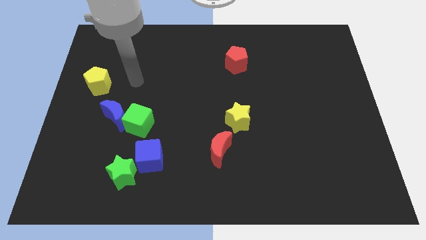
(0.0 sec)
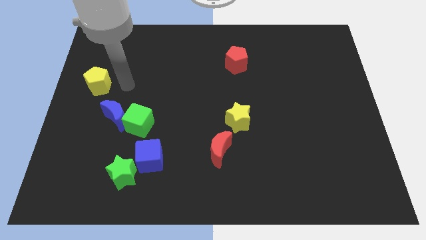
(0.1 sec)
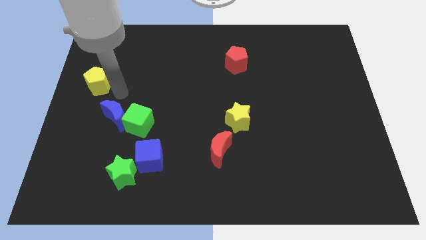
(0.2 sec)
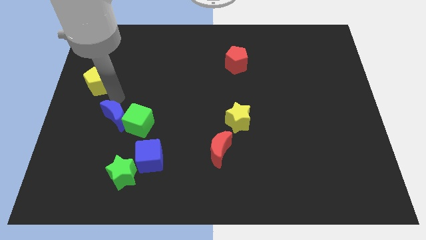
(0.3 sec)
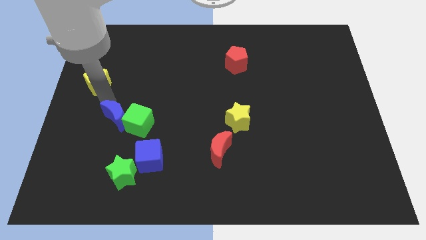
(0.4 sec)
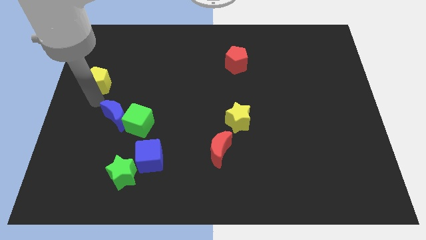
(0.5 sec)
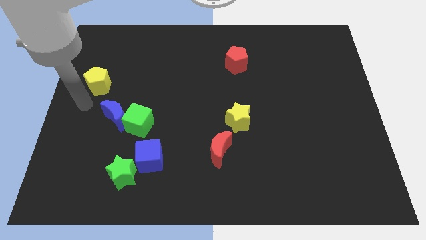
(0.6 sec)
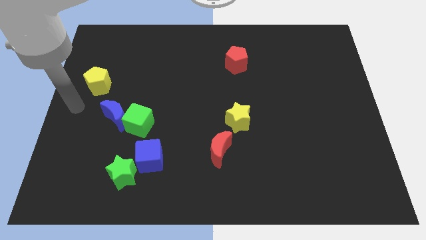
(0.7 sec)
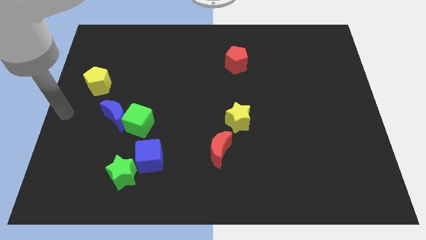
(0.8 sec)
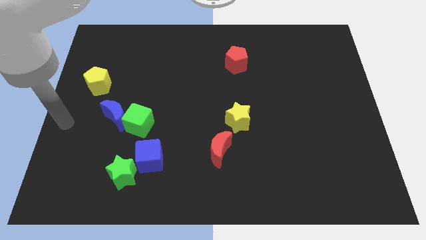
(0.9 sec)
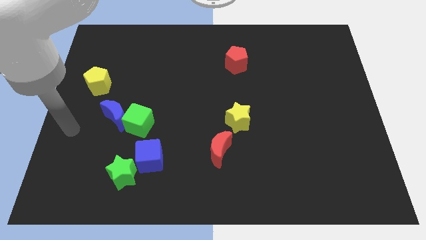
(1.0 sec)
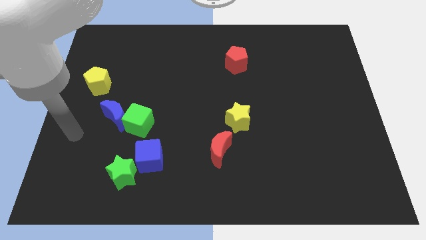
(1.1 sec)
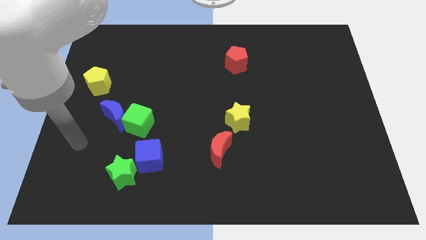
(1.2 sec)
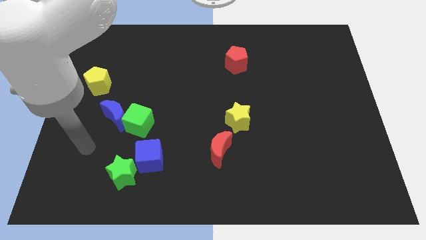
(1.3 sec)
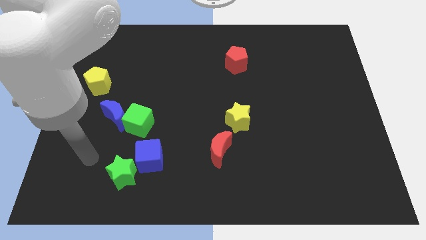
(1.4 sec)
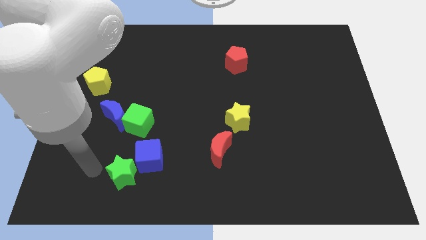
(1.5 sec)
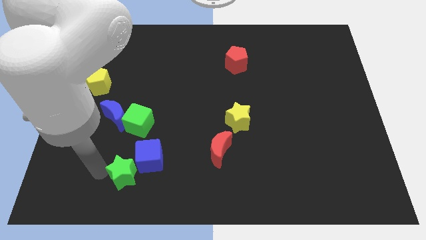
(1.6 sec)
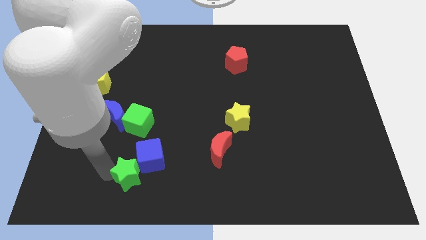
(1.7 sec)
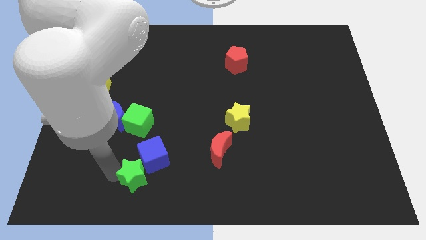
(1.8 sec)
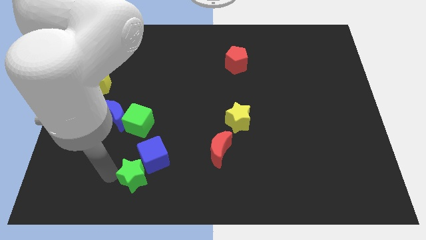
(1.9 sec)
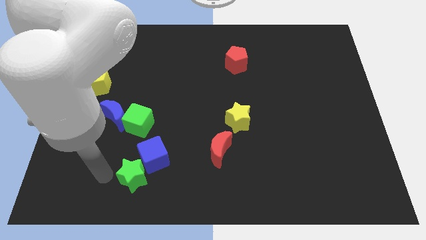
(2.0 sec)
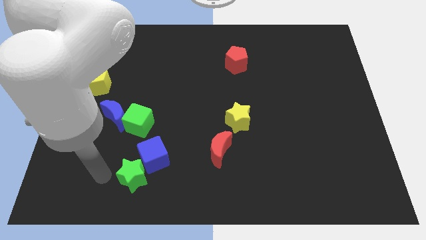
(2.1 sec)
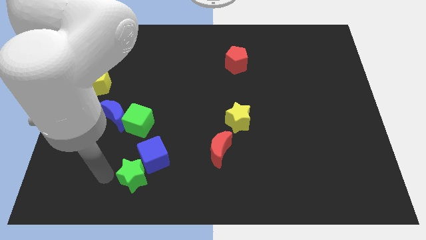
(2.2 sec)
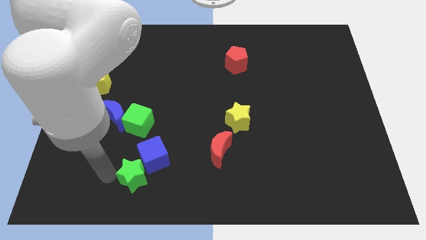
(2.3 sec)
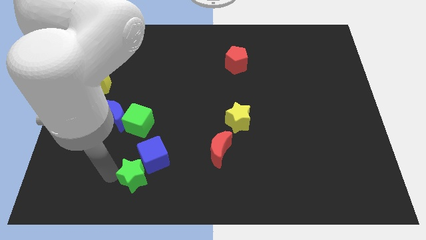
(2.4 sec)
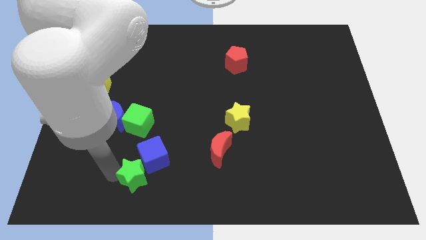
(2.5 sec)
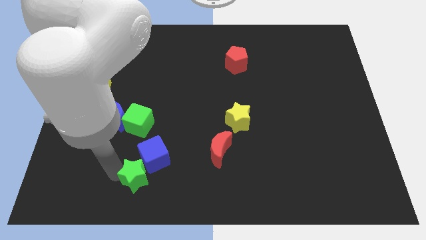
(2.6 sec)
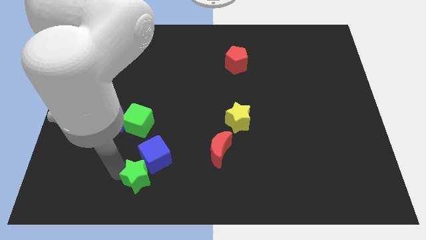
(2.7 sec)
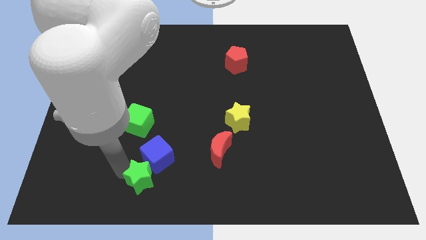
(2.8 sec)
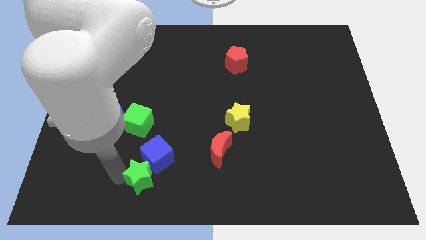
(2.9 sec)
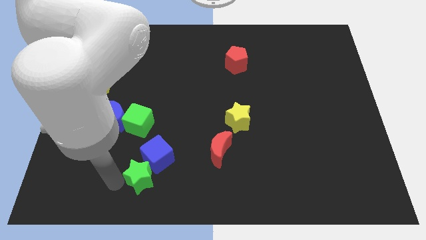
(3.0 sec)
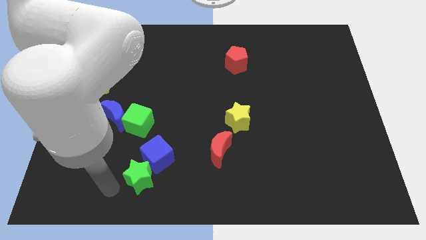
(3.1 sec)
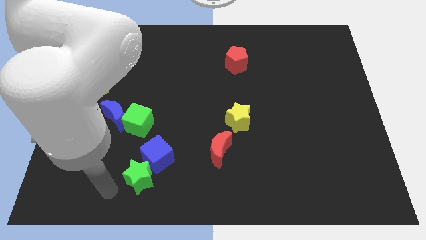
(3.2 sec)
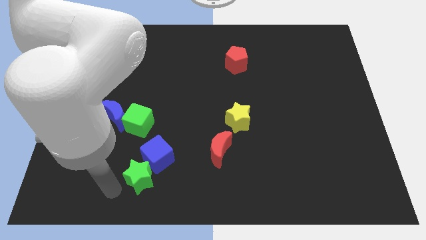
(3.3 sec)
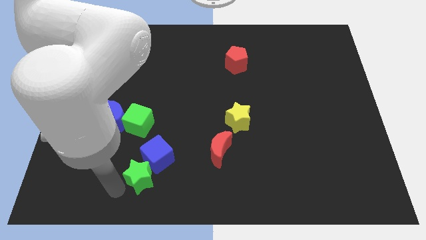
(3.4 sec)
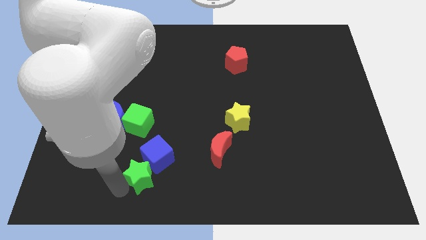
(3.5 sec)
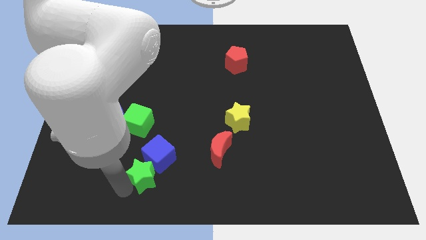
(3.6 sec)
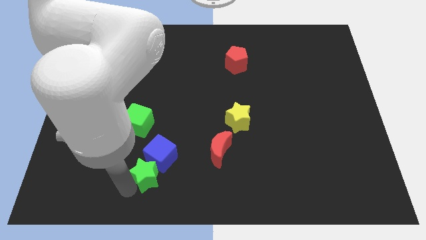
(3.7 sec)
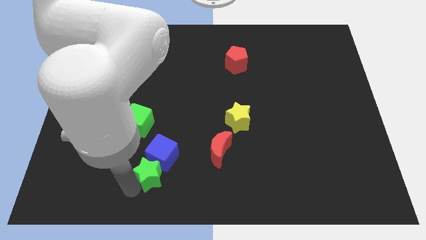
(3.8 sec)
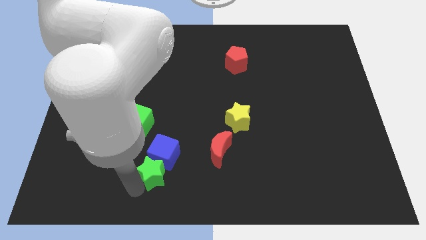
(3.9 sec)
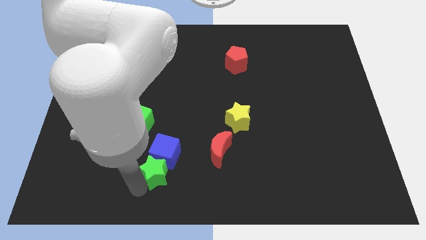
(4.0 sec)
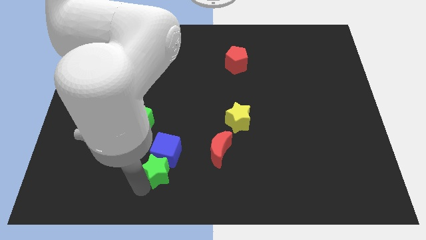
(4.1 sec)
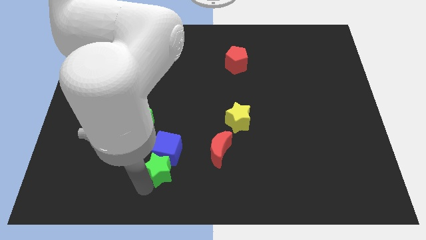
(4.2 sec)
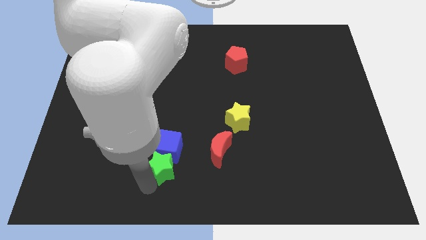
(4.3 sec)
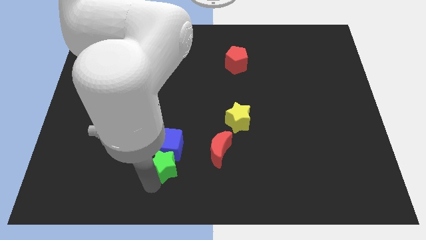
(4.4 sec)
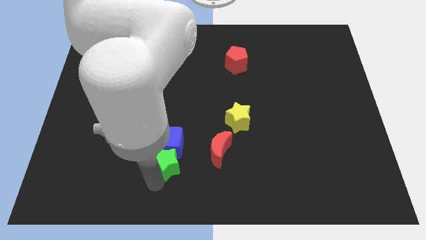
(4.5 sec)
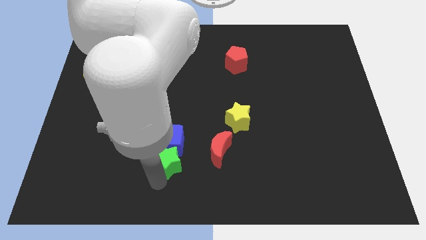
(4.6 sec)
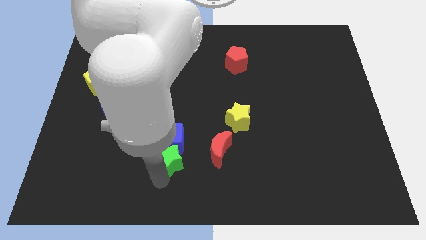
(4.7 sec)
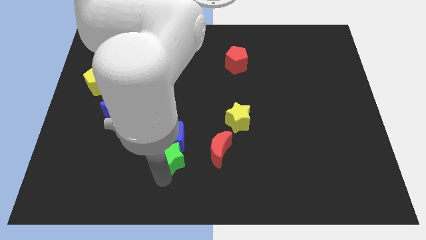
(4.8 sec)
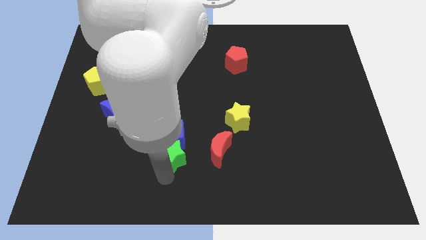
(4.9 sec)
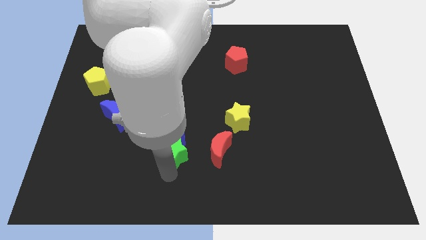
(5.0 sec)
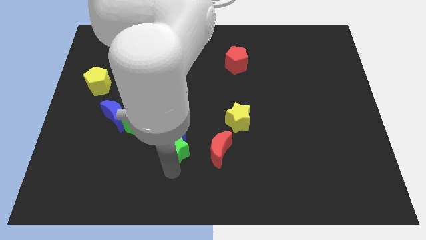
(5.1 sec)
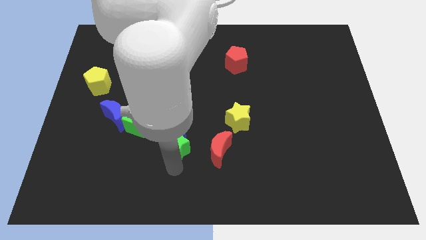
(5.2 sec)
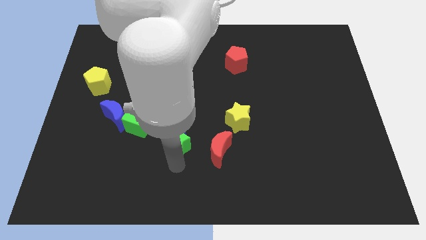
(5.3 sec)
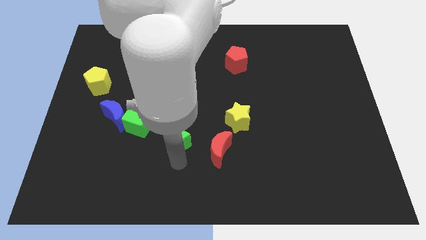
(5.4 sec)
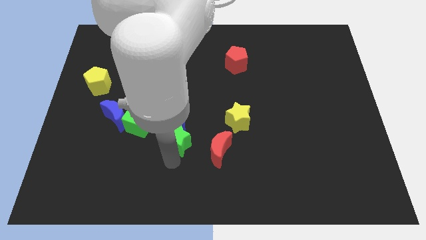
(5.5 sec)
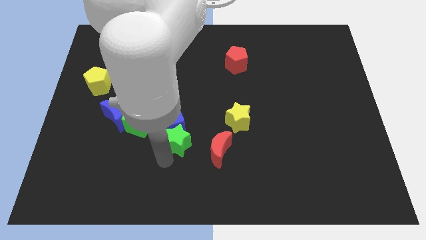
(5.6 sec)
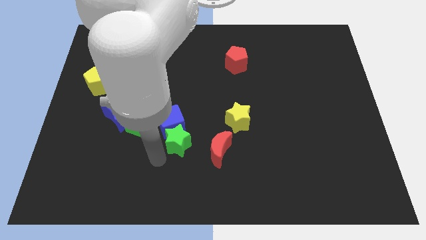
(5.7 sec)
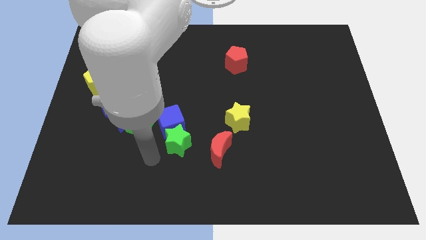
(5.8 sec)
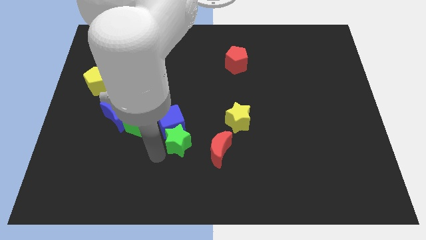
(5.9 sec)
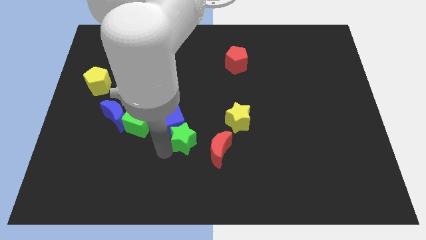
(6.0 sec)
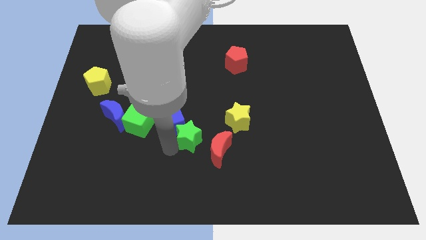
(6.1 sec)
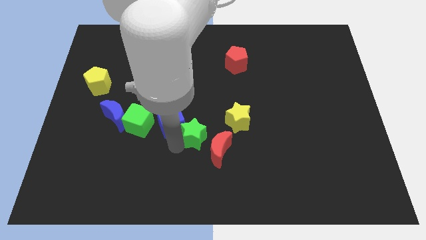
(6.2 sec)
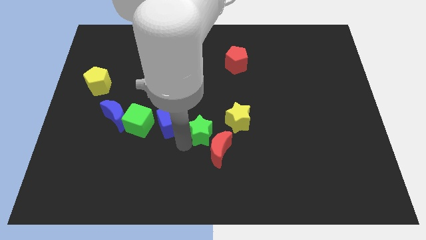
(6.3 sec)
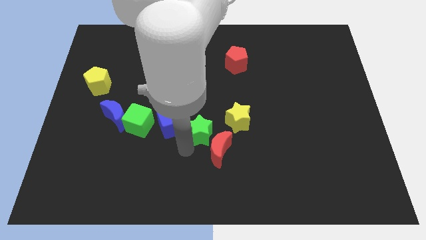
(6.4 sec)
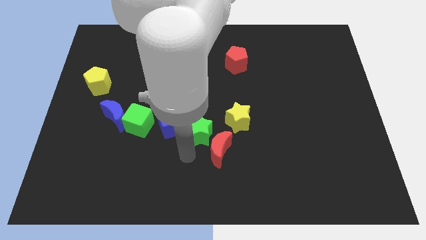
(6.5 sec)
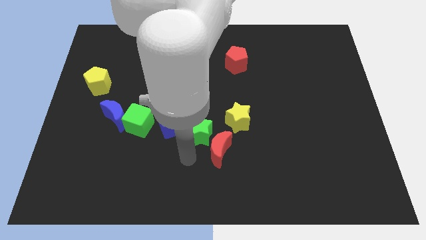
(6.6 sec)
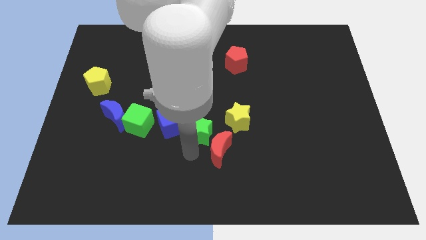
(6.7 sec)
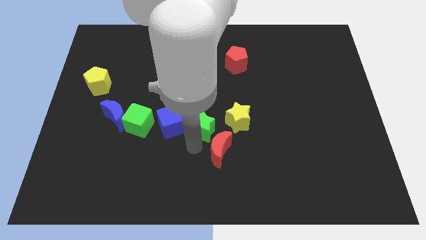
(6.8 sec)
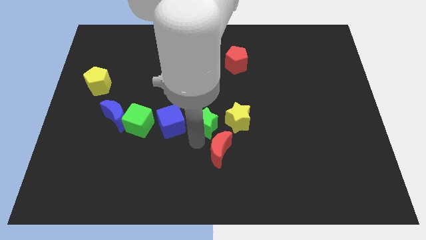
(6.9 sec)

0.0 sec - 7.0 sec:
move the green star diagonally upwards and to the right

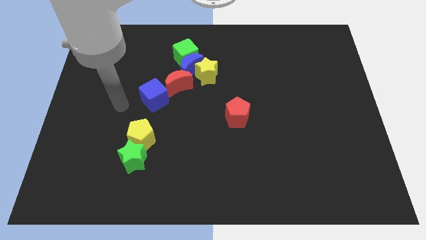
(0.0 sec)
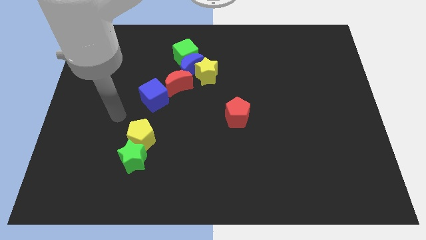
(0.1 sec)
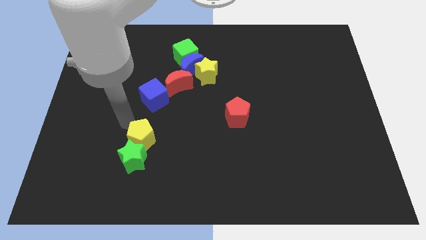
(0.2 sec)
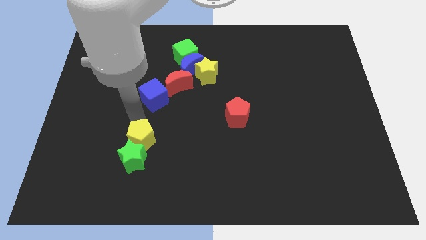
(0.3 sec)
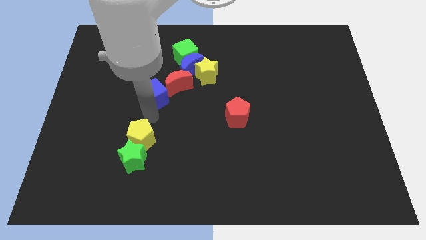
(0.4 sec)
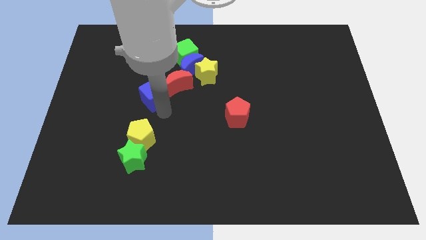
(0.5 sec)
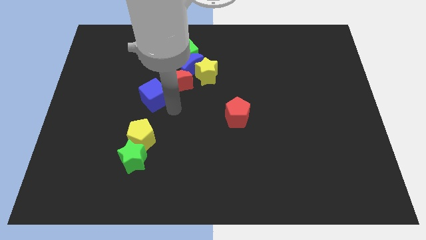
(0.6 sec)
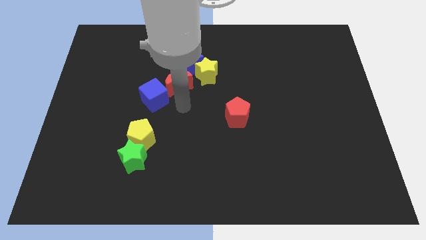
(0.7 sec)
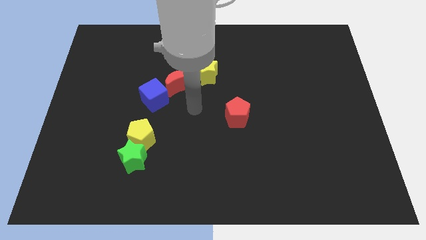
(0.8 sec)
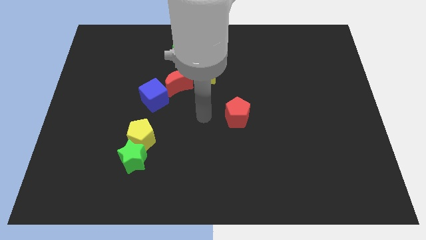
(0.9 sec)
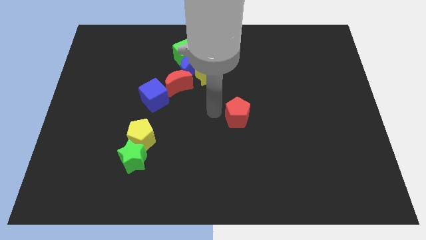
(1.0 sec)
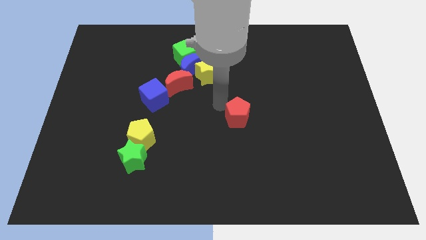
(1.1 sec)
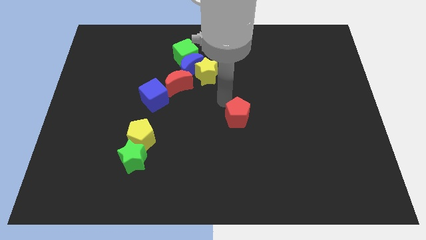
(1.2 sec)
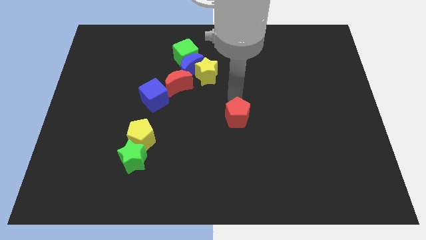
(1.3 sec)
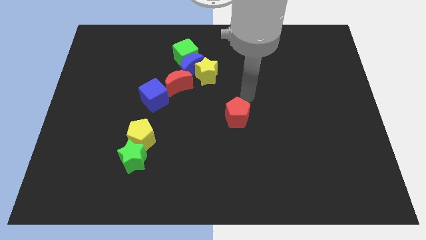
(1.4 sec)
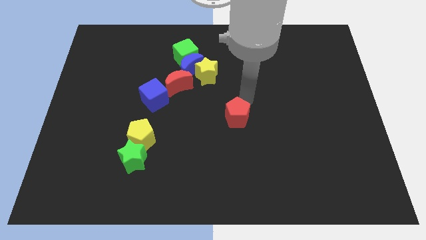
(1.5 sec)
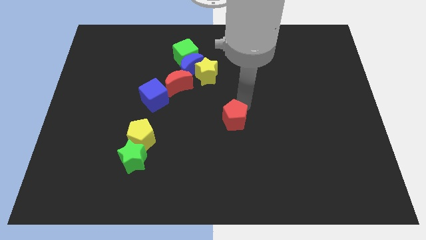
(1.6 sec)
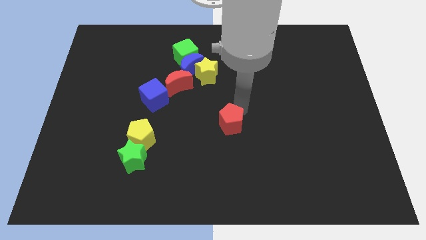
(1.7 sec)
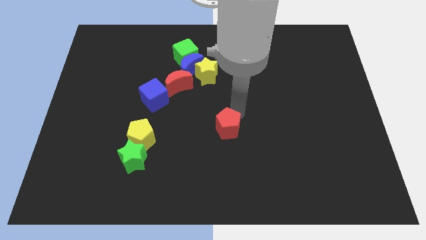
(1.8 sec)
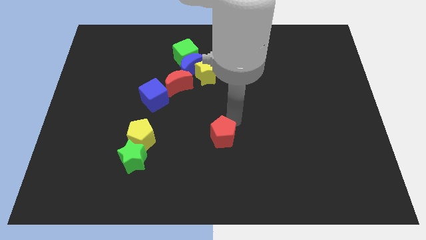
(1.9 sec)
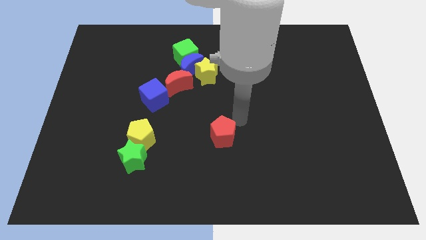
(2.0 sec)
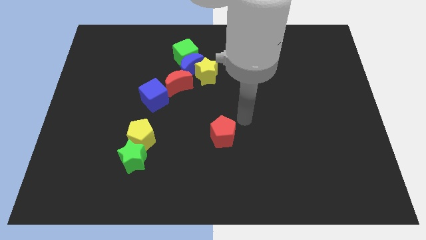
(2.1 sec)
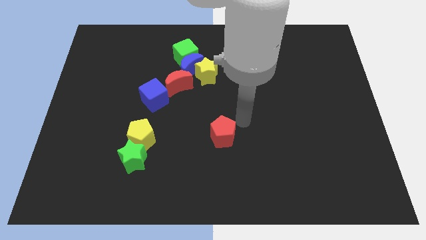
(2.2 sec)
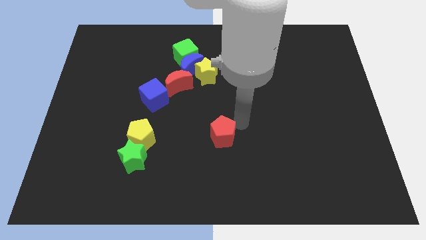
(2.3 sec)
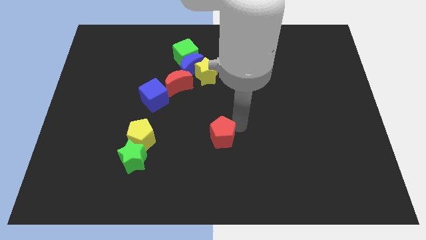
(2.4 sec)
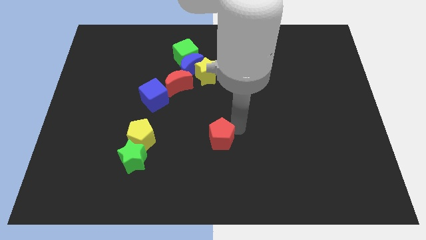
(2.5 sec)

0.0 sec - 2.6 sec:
move the red pentagon a little bit downwards and then to the left
